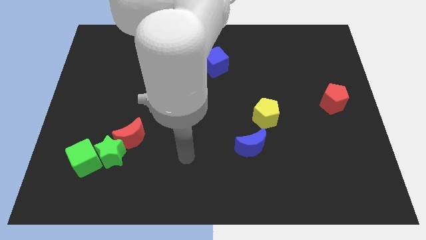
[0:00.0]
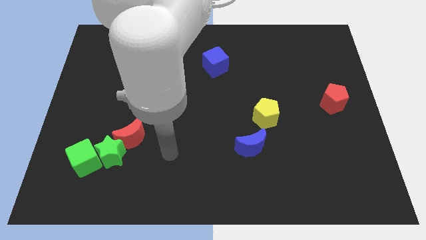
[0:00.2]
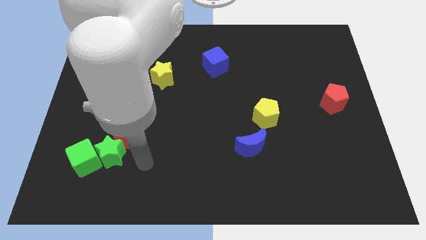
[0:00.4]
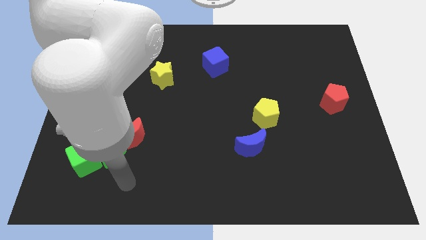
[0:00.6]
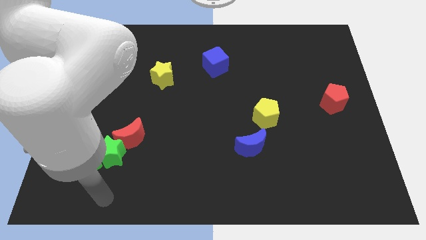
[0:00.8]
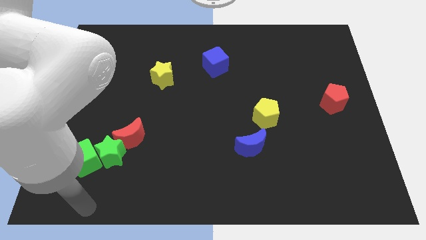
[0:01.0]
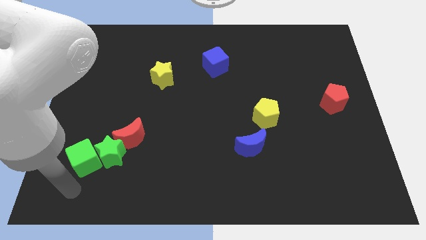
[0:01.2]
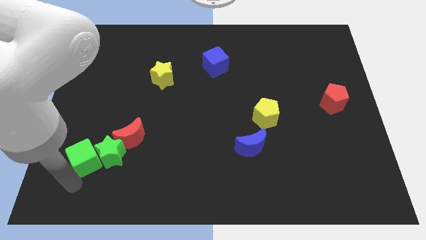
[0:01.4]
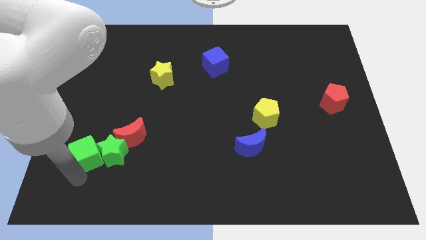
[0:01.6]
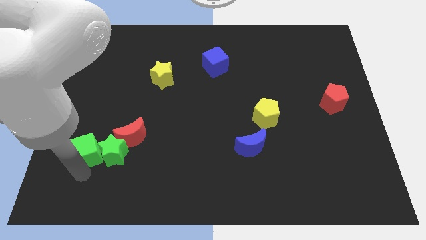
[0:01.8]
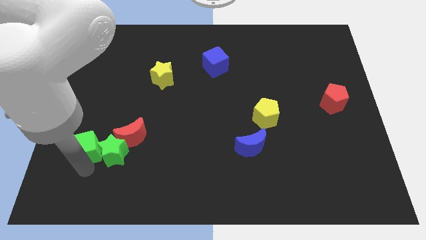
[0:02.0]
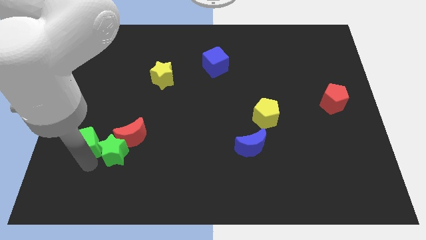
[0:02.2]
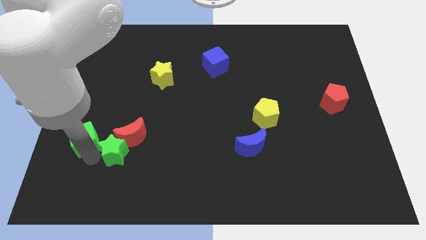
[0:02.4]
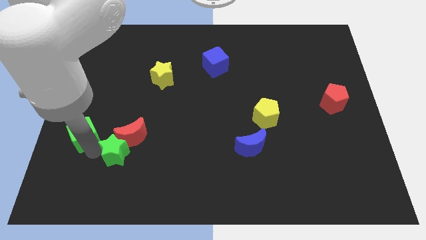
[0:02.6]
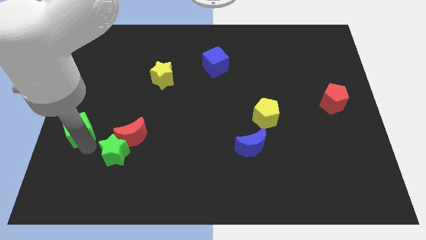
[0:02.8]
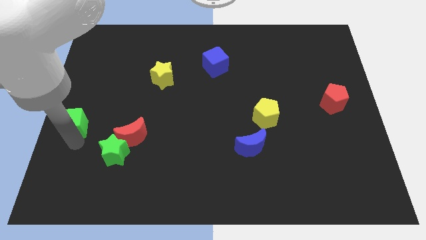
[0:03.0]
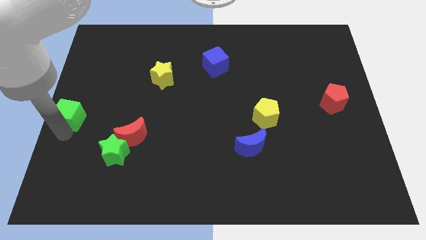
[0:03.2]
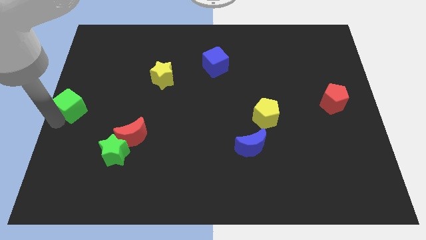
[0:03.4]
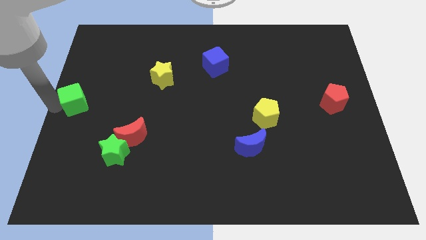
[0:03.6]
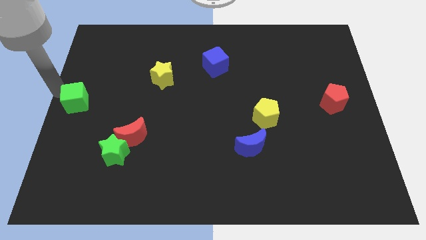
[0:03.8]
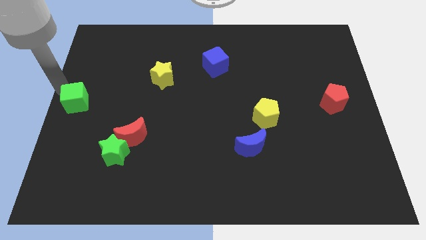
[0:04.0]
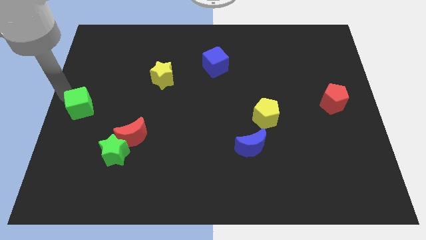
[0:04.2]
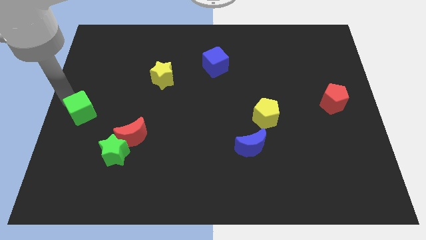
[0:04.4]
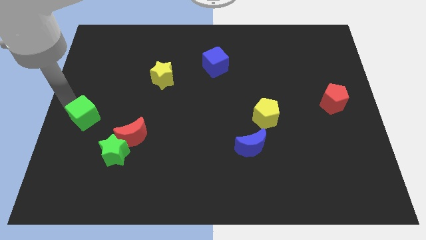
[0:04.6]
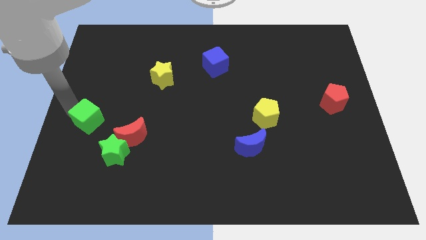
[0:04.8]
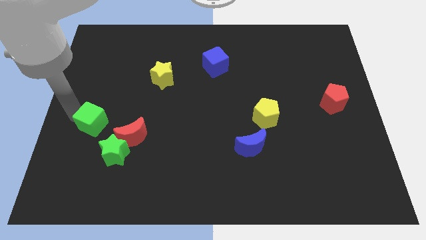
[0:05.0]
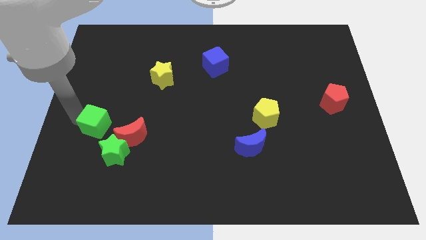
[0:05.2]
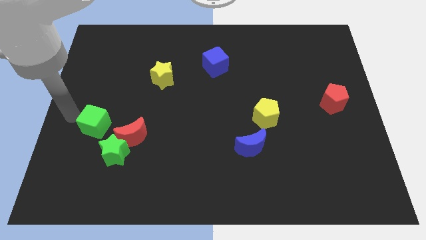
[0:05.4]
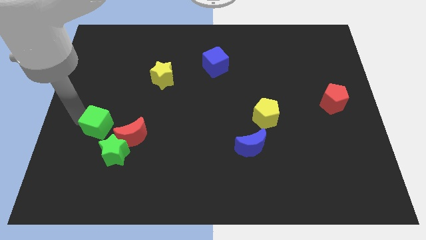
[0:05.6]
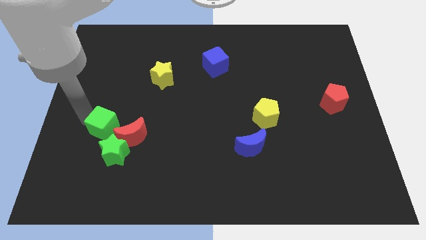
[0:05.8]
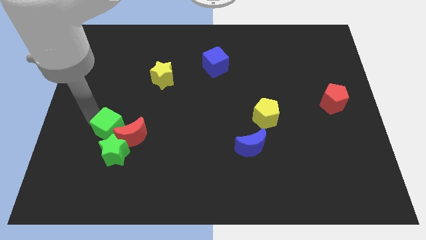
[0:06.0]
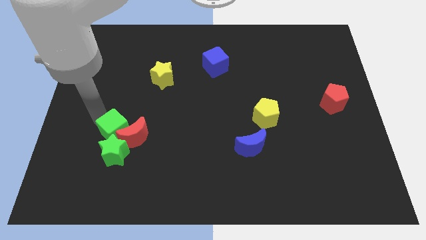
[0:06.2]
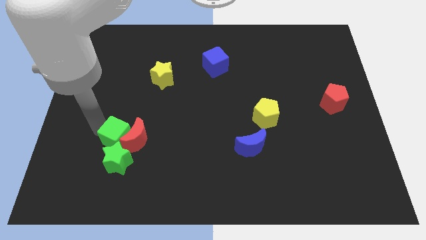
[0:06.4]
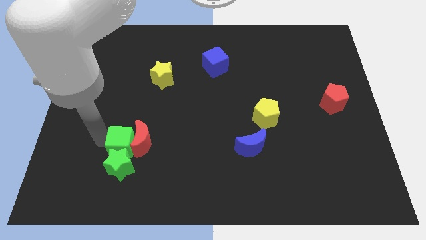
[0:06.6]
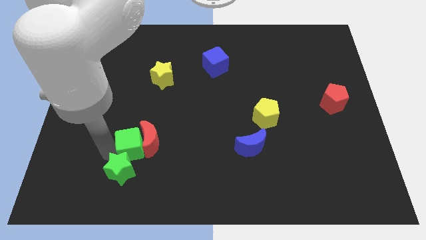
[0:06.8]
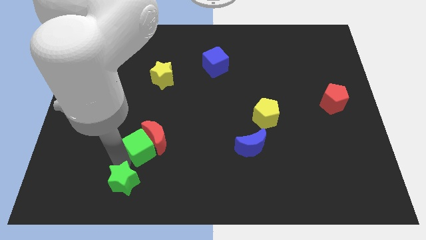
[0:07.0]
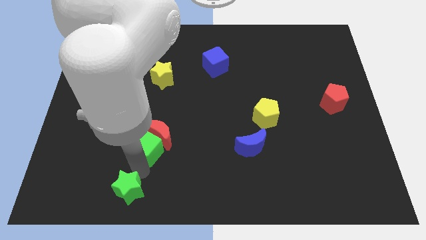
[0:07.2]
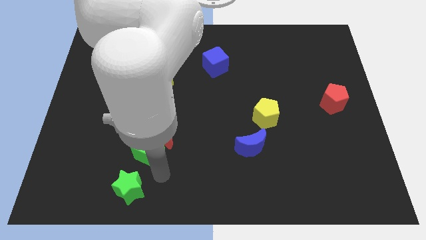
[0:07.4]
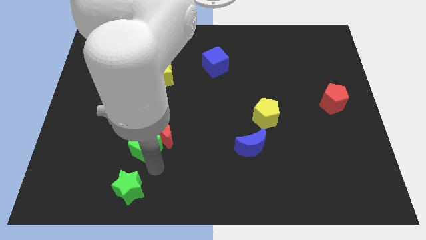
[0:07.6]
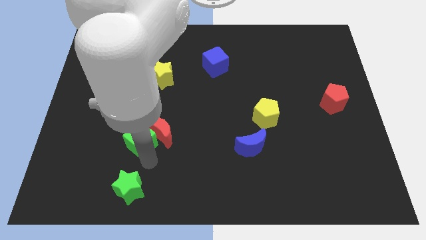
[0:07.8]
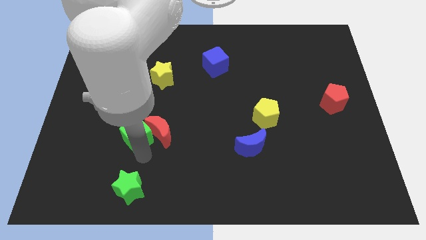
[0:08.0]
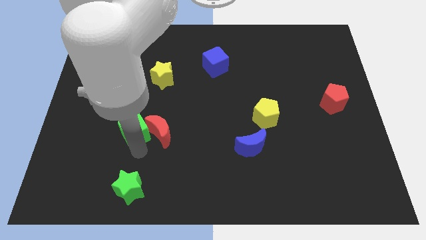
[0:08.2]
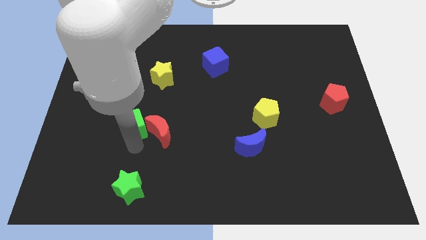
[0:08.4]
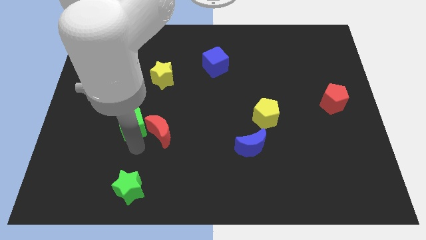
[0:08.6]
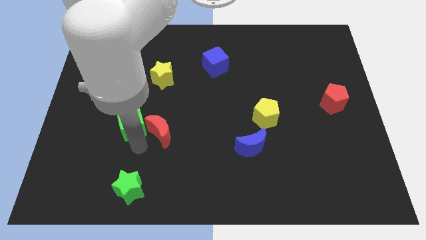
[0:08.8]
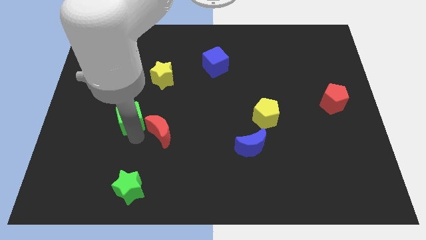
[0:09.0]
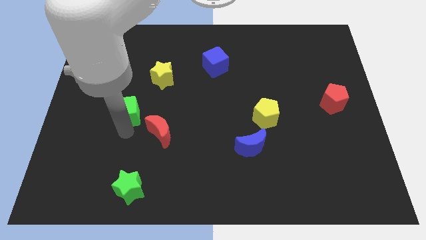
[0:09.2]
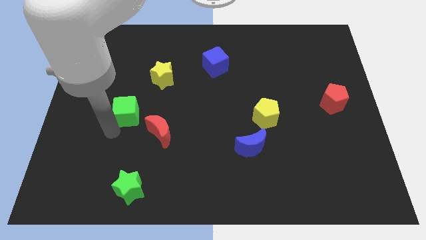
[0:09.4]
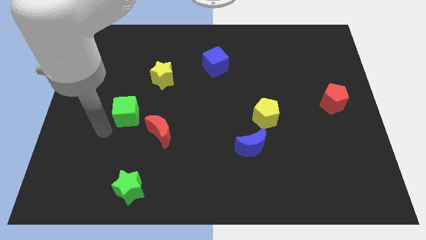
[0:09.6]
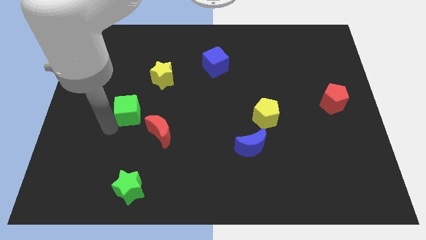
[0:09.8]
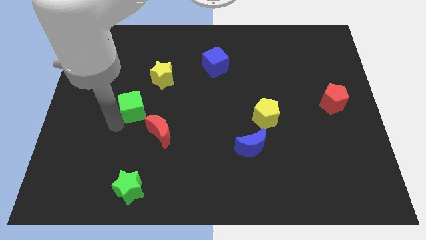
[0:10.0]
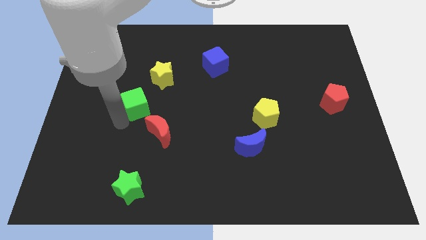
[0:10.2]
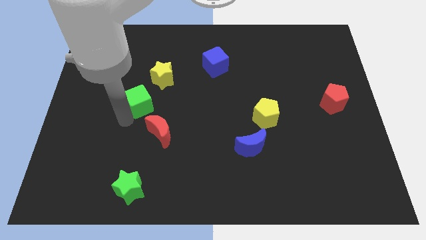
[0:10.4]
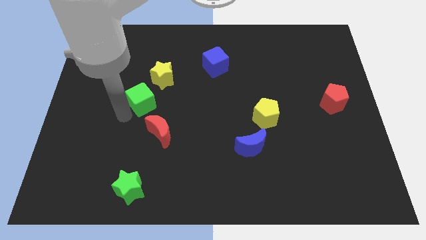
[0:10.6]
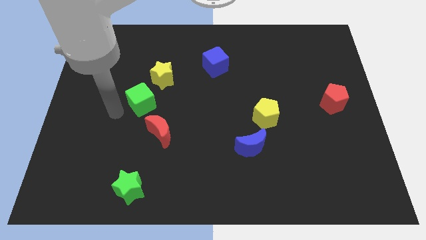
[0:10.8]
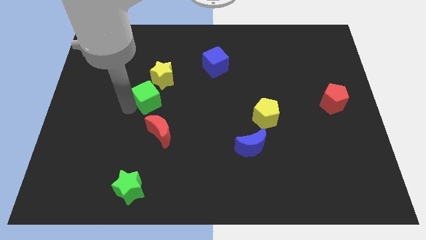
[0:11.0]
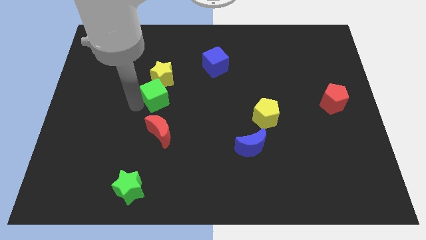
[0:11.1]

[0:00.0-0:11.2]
slide the green cube upwards and to the right diagonally

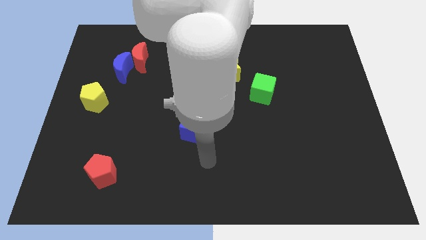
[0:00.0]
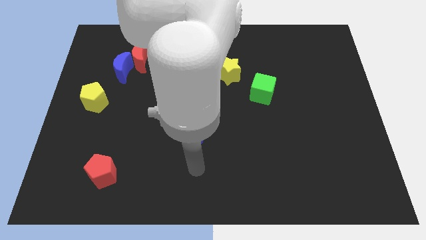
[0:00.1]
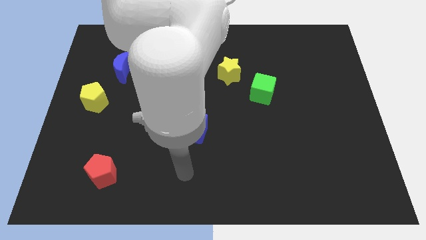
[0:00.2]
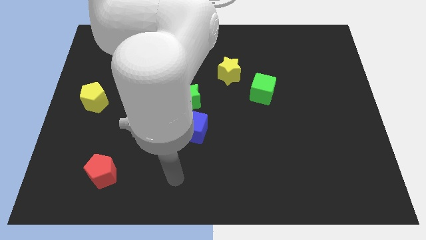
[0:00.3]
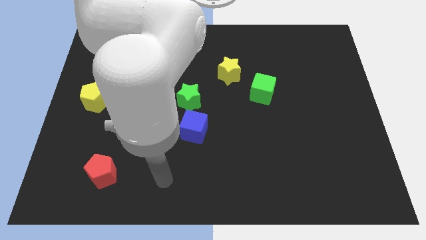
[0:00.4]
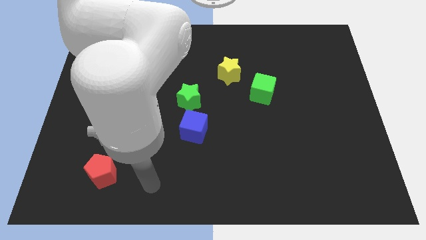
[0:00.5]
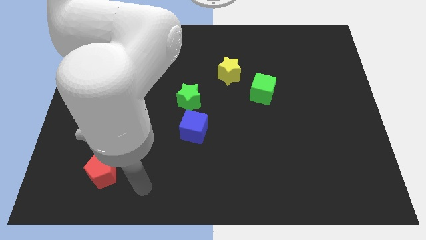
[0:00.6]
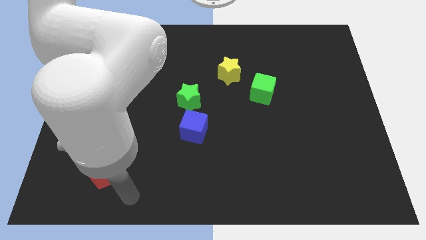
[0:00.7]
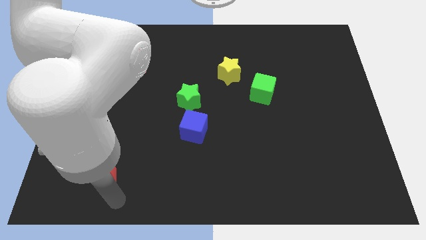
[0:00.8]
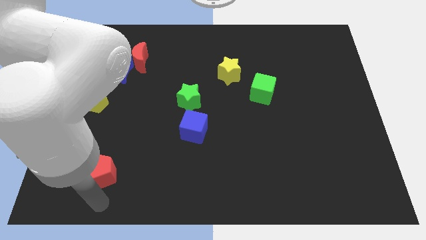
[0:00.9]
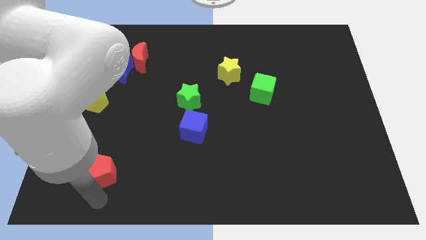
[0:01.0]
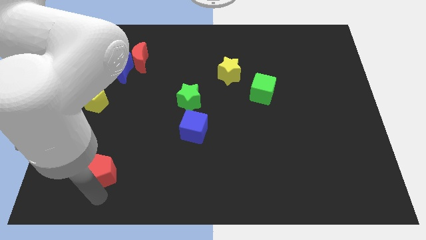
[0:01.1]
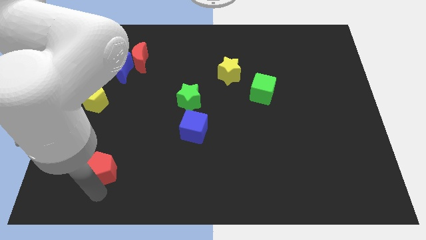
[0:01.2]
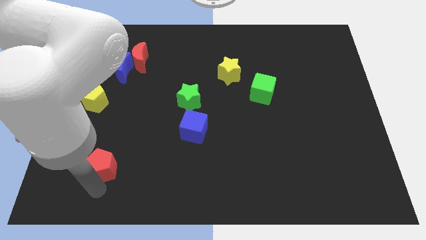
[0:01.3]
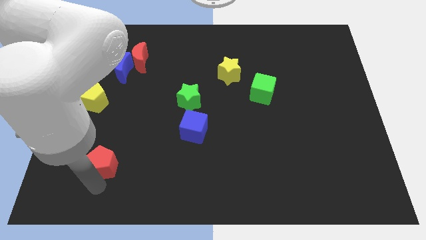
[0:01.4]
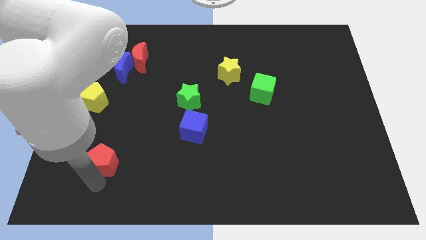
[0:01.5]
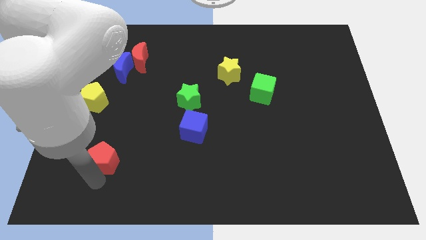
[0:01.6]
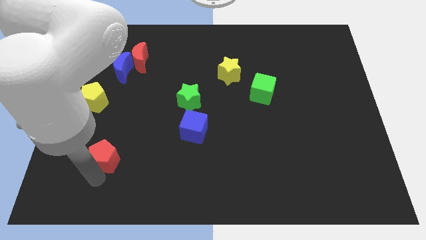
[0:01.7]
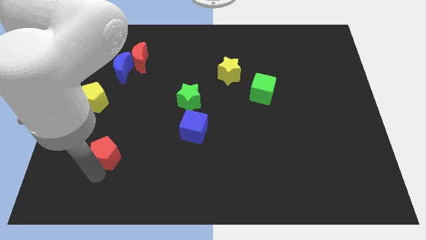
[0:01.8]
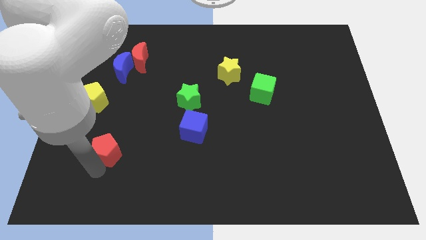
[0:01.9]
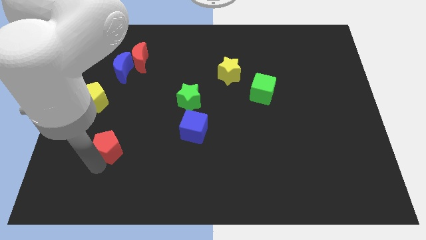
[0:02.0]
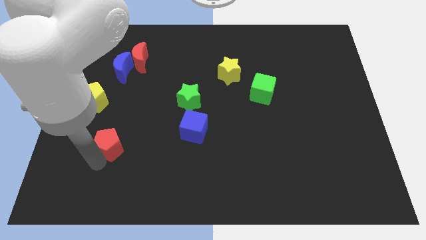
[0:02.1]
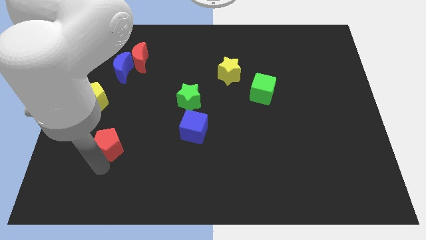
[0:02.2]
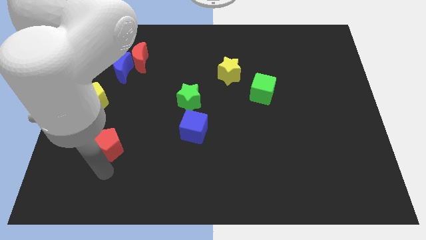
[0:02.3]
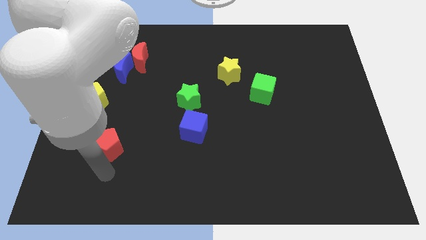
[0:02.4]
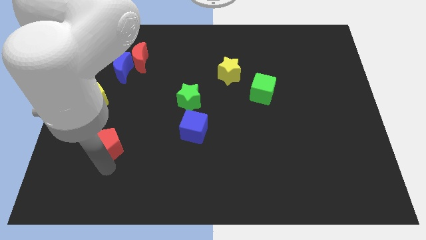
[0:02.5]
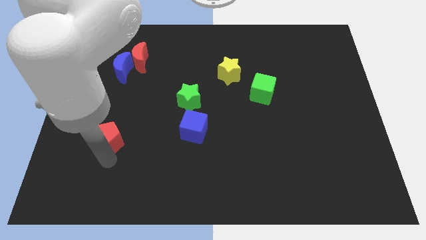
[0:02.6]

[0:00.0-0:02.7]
slightly push the red pentagon up

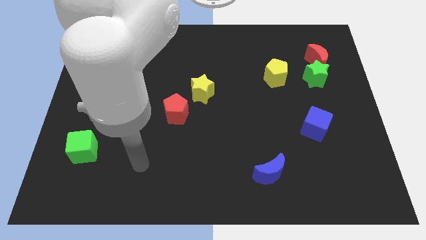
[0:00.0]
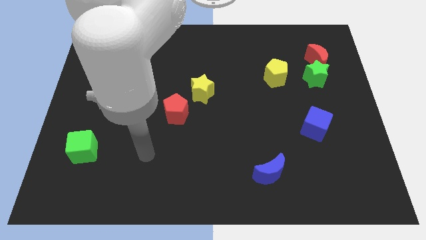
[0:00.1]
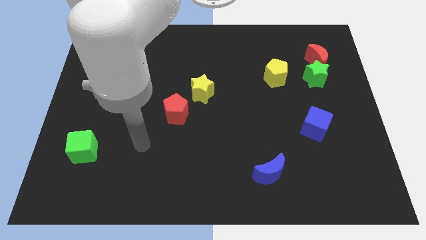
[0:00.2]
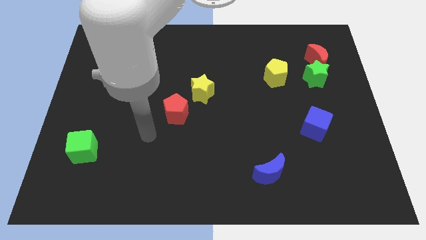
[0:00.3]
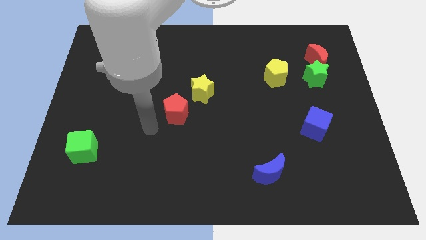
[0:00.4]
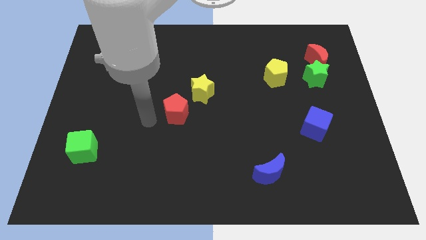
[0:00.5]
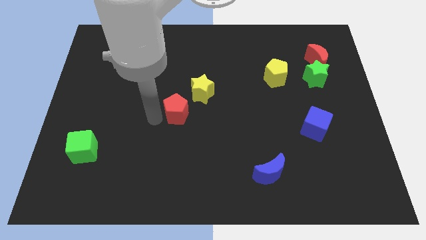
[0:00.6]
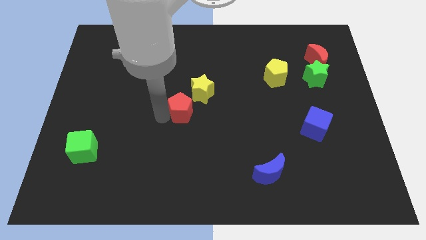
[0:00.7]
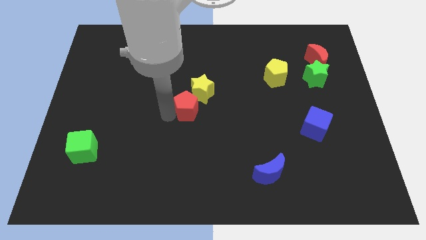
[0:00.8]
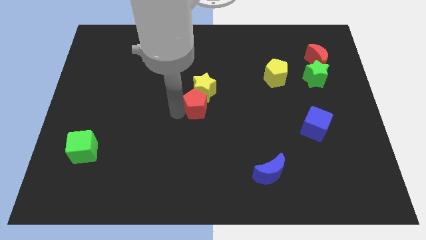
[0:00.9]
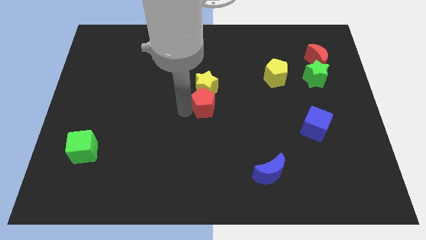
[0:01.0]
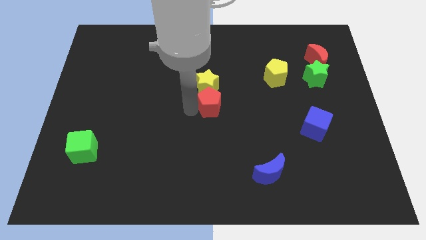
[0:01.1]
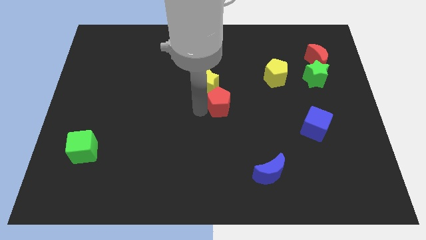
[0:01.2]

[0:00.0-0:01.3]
push the red pentagon diagonally upwards and to the right a little bit
